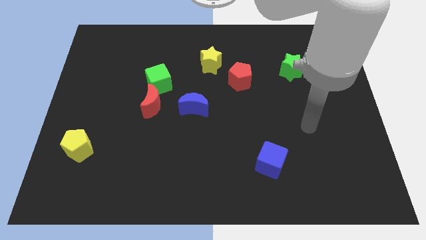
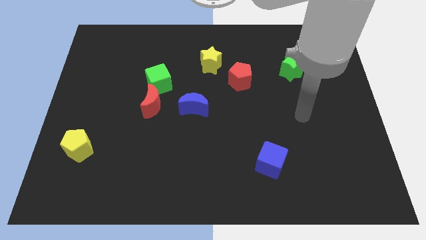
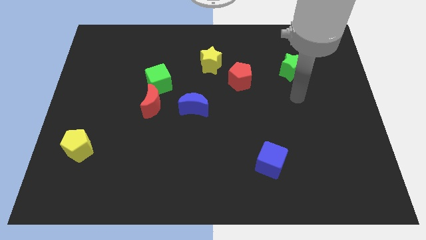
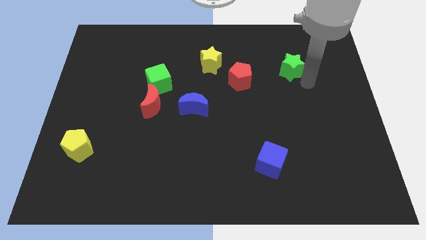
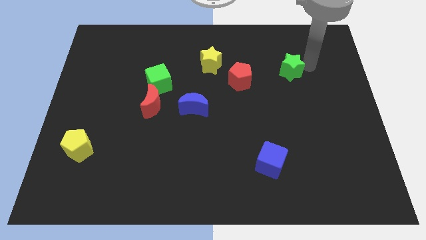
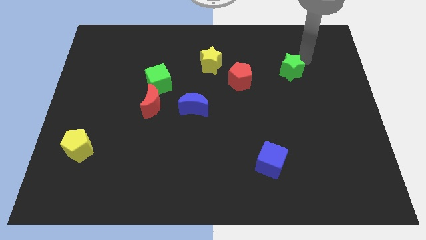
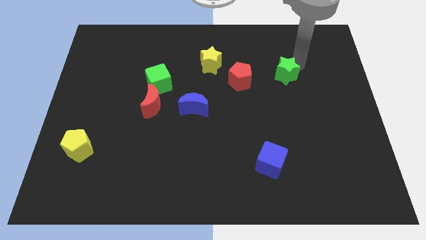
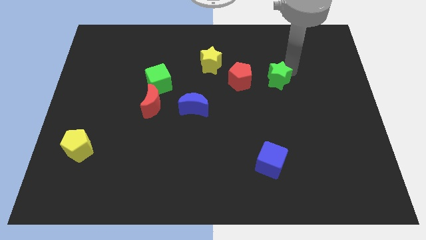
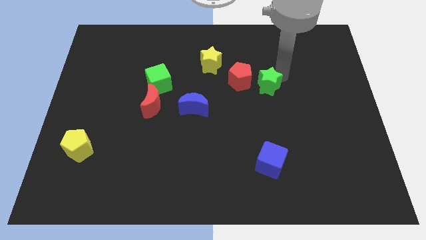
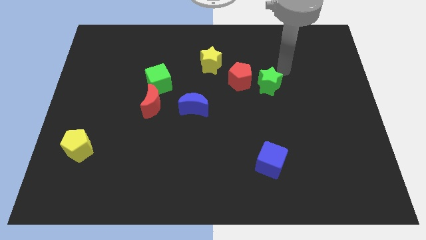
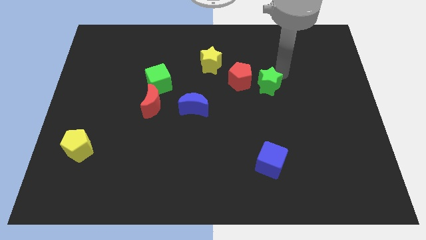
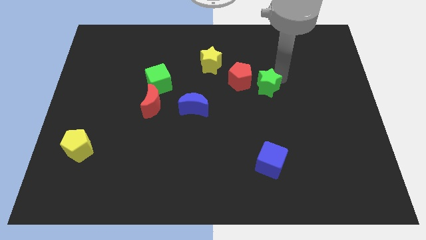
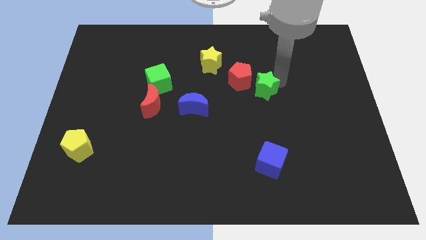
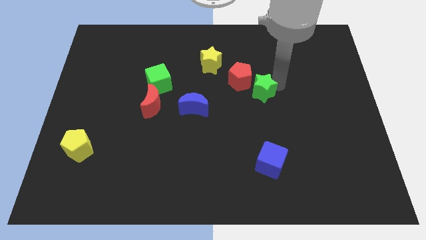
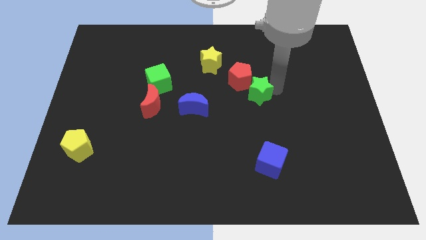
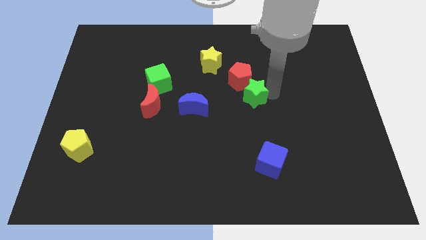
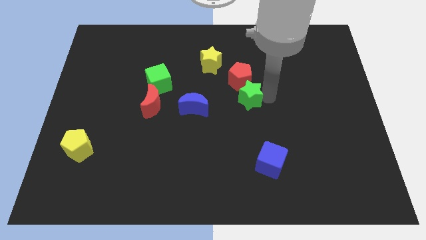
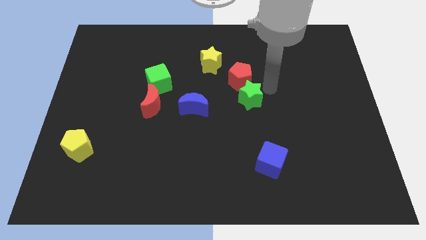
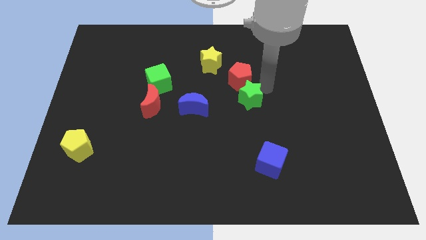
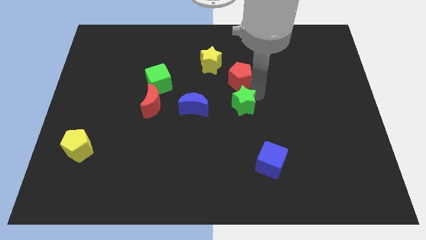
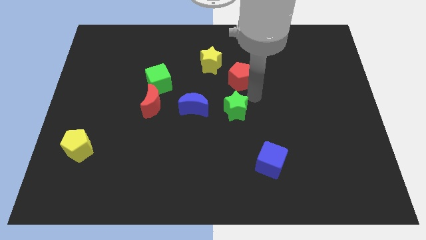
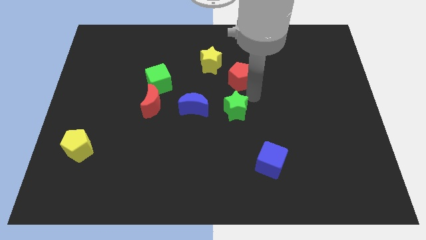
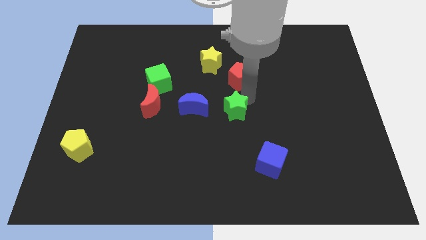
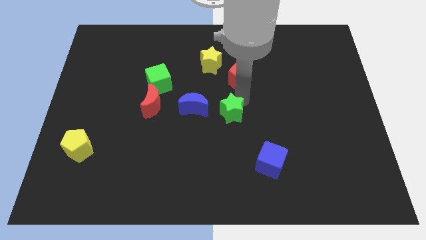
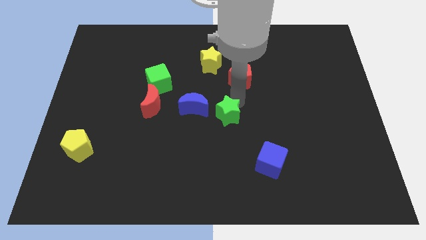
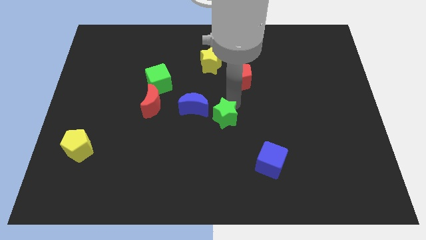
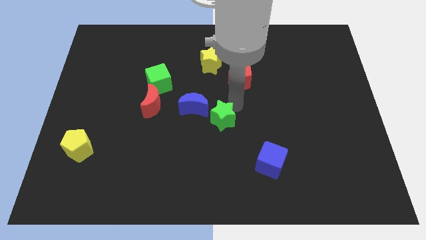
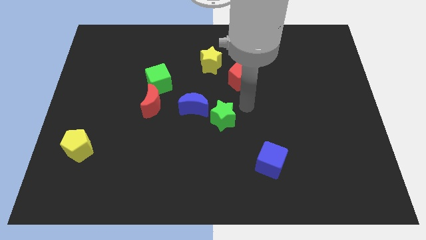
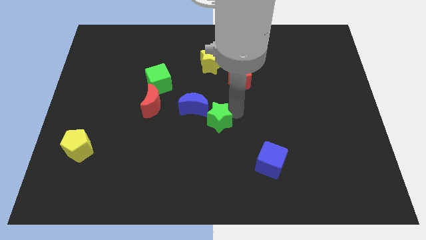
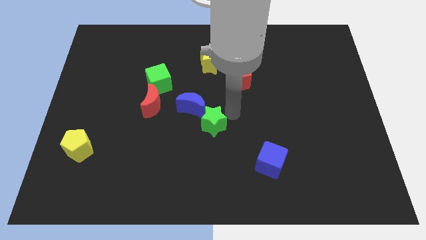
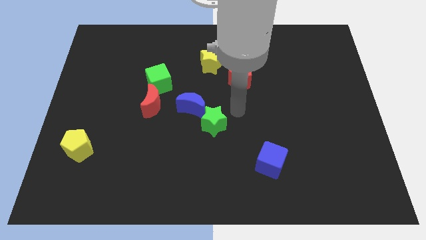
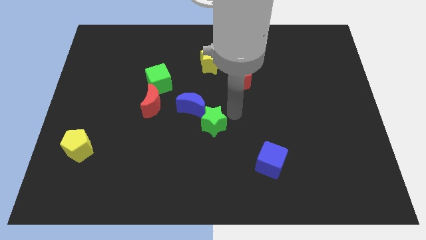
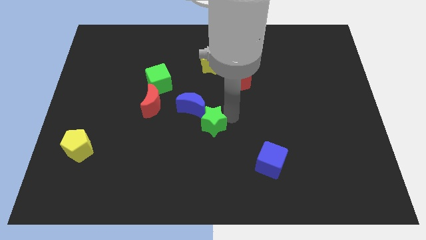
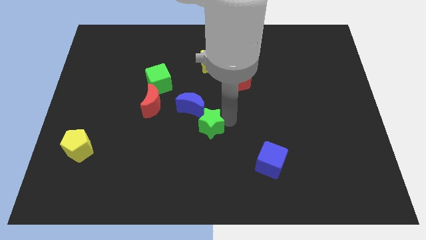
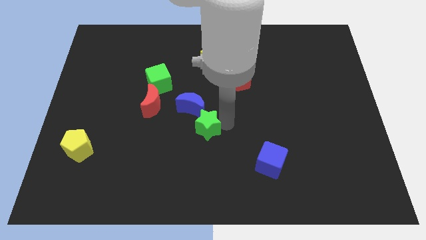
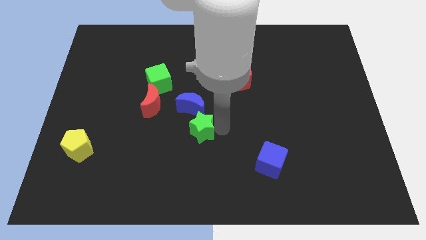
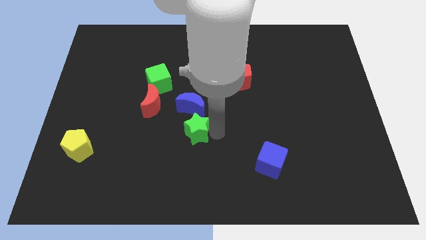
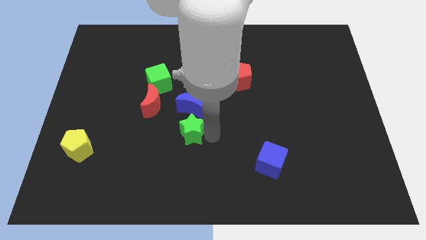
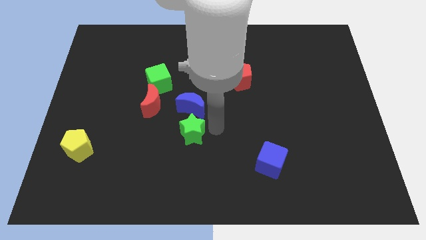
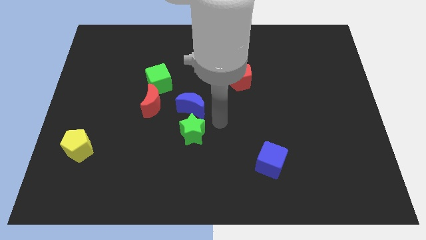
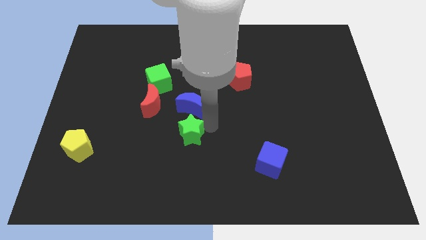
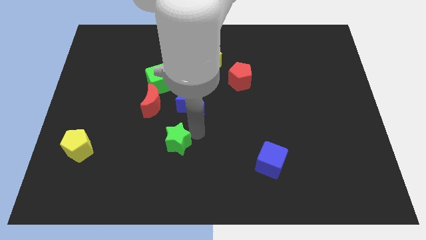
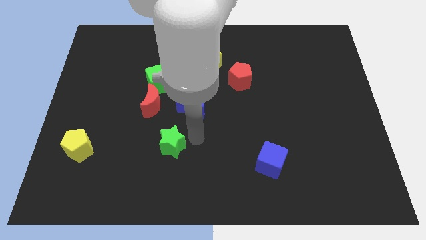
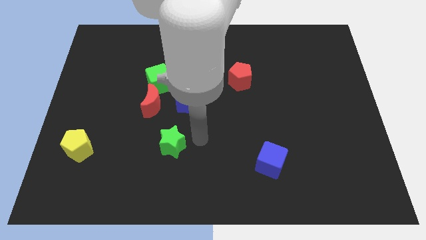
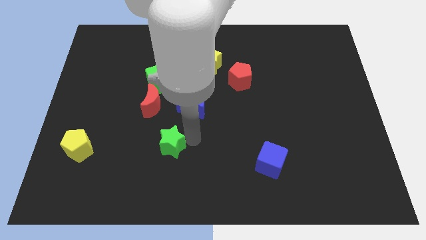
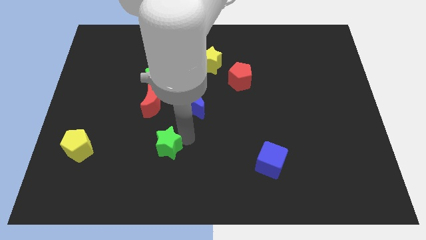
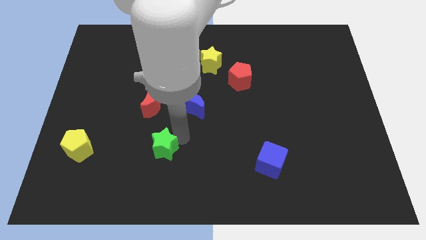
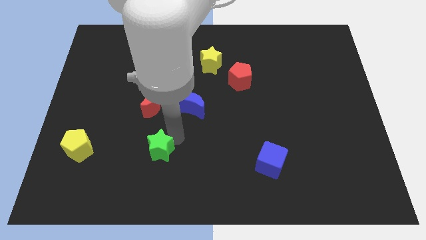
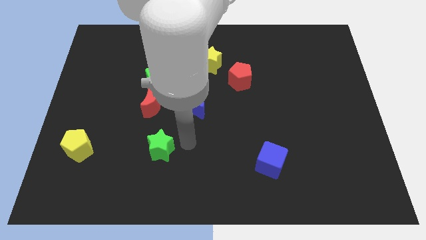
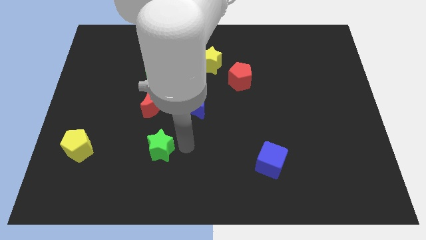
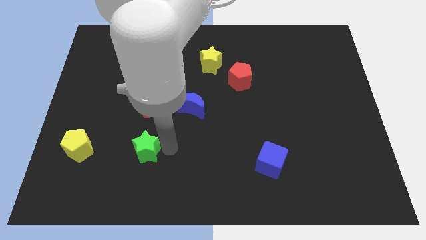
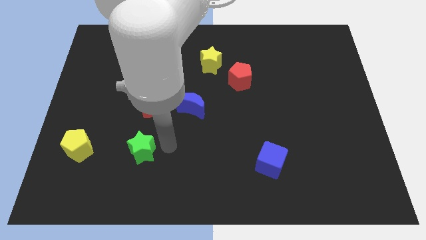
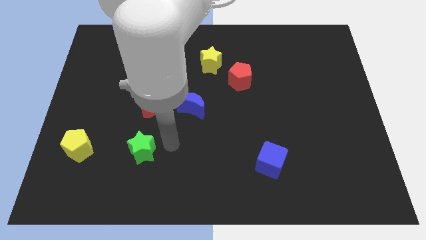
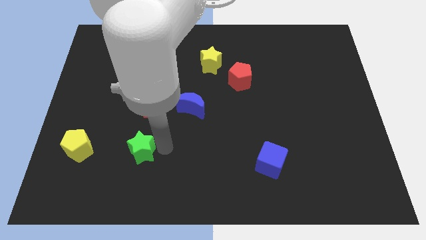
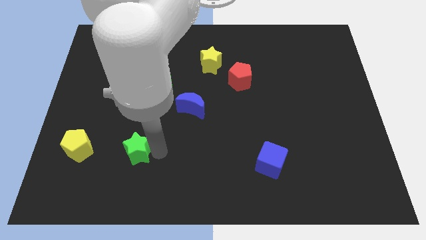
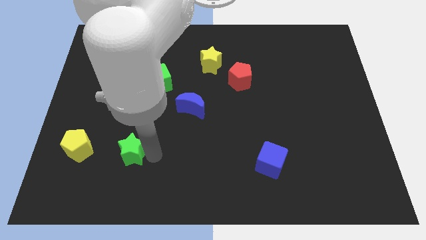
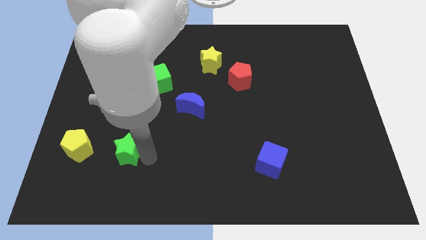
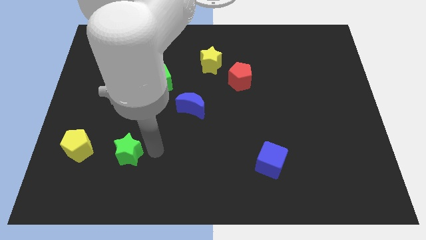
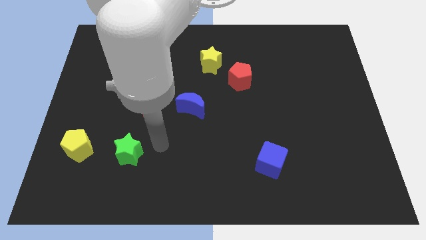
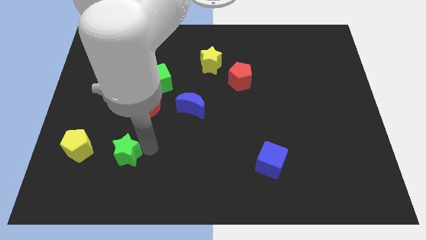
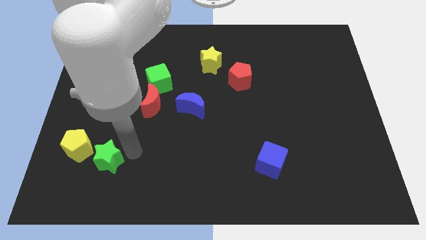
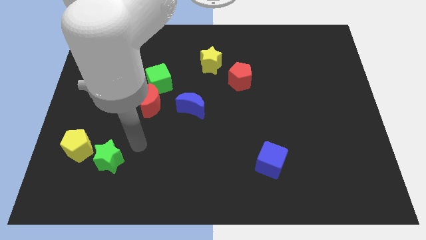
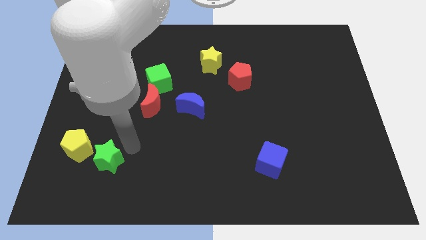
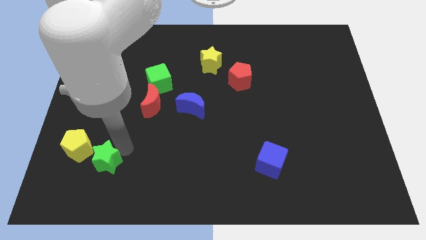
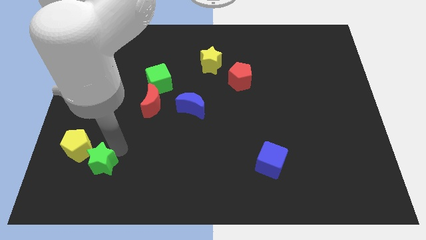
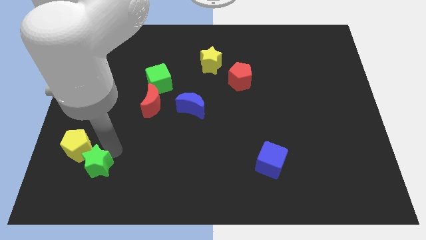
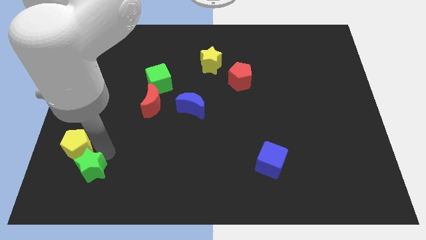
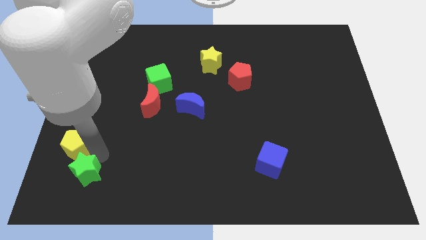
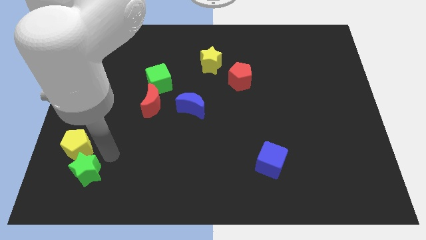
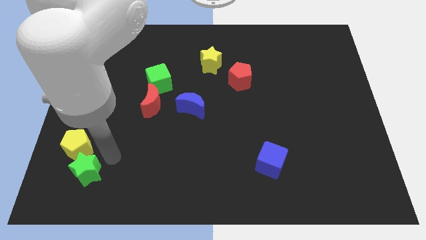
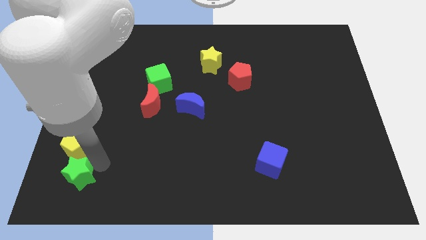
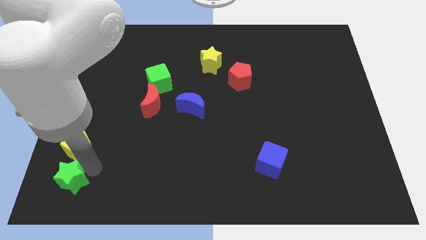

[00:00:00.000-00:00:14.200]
slide the green star to the bottom left
